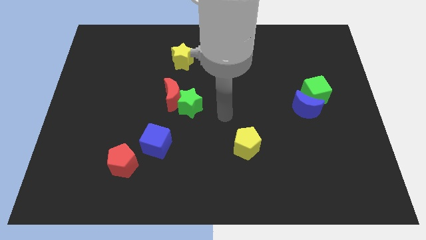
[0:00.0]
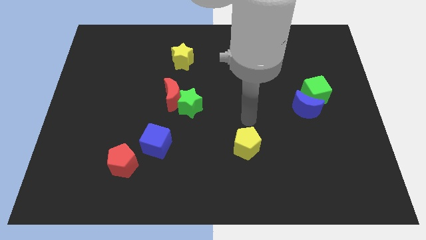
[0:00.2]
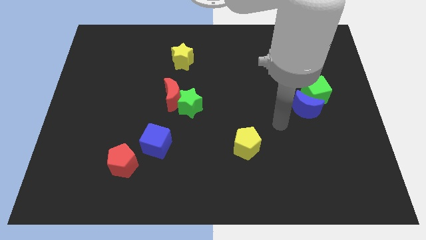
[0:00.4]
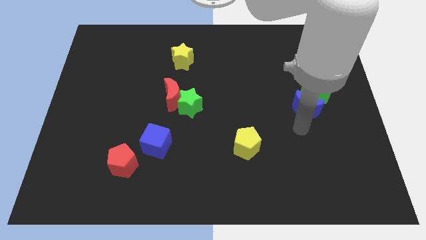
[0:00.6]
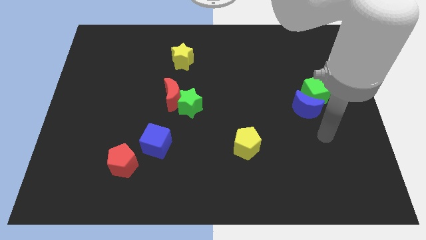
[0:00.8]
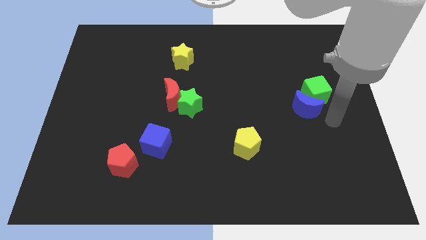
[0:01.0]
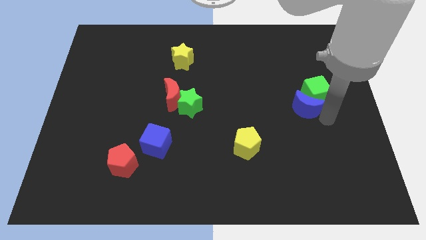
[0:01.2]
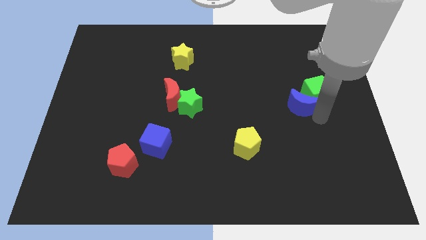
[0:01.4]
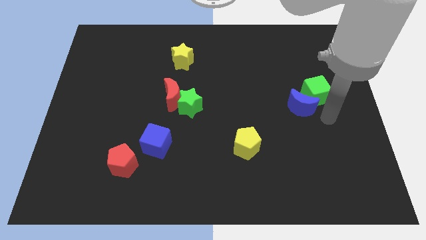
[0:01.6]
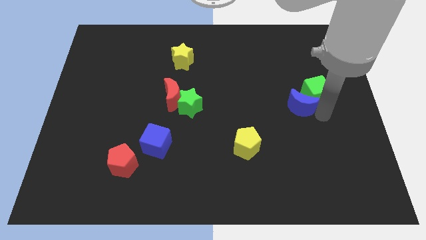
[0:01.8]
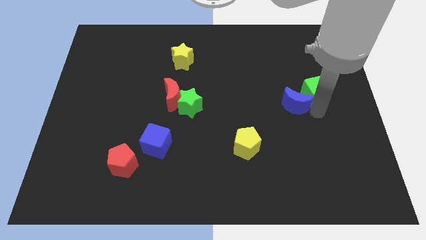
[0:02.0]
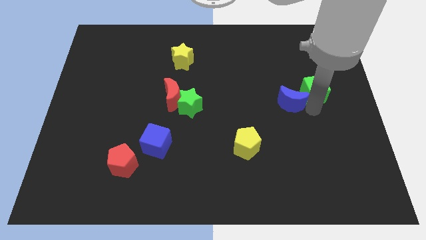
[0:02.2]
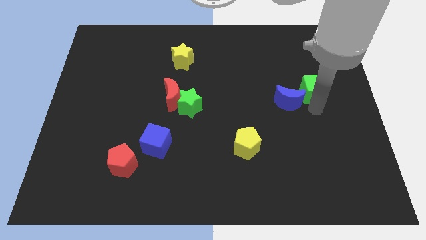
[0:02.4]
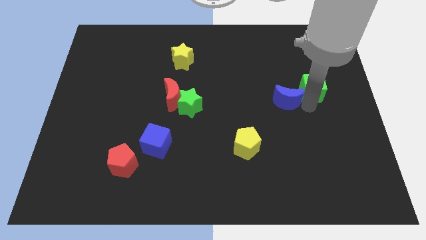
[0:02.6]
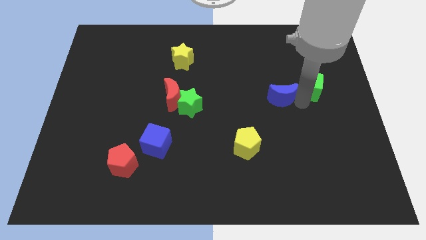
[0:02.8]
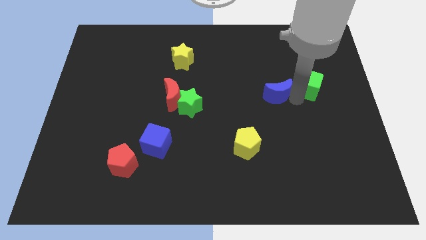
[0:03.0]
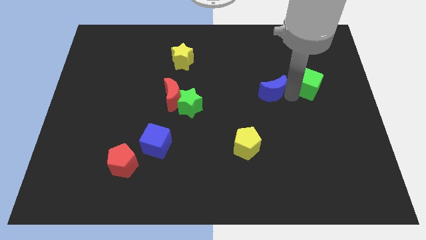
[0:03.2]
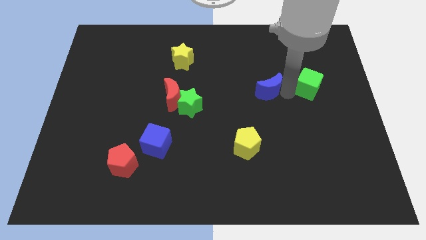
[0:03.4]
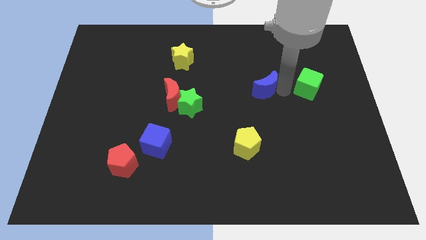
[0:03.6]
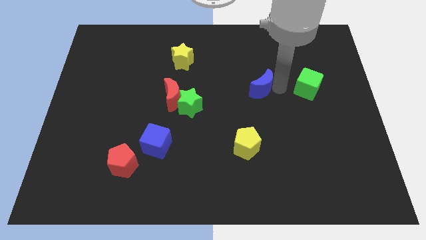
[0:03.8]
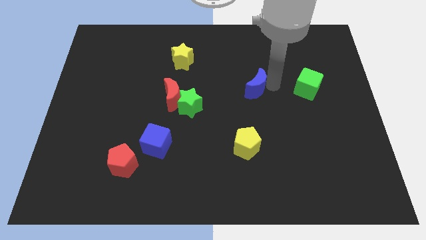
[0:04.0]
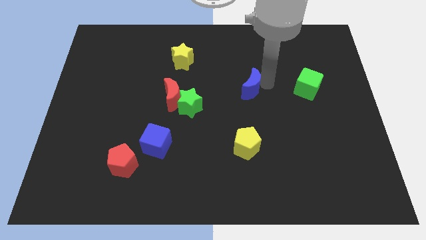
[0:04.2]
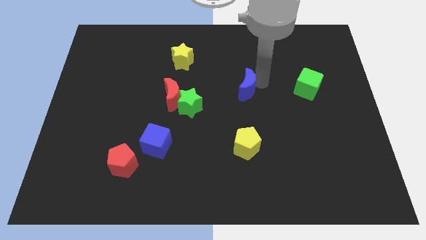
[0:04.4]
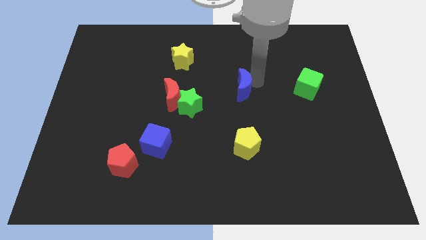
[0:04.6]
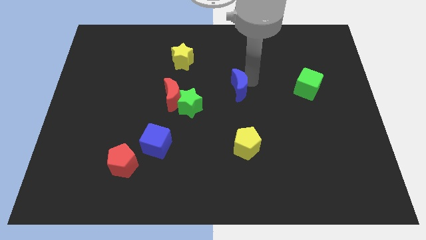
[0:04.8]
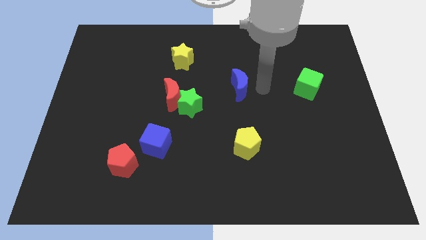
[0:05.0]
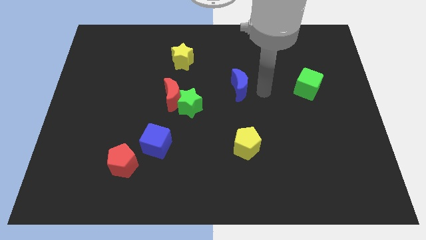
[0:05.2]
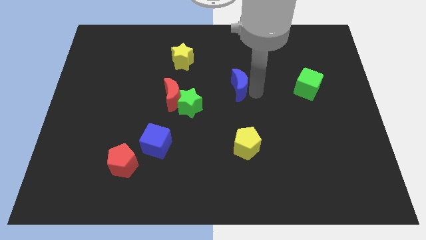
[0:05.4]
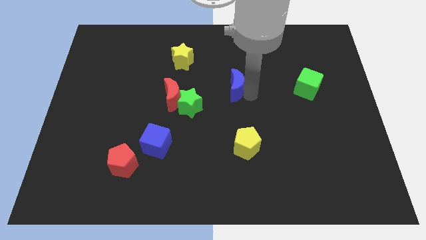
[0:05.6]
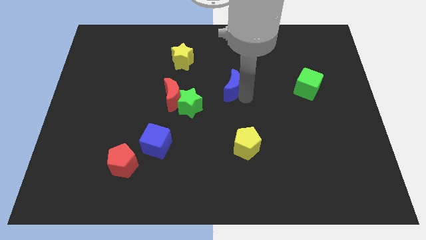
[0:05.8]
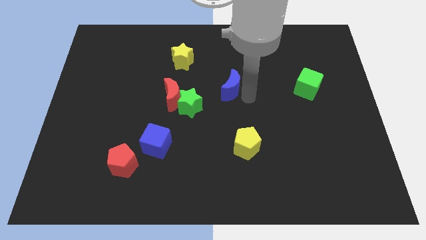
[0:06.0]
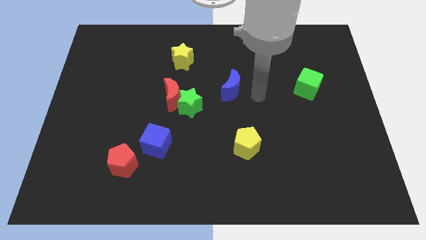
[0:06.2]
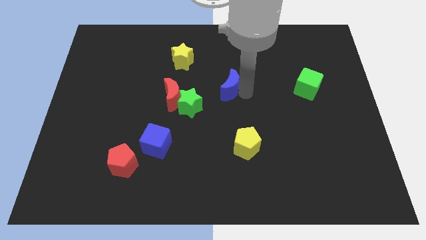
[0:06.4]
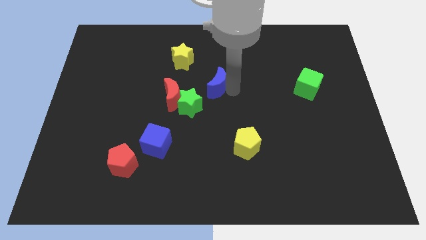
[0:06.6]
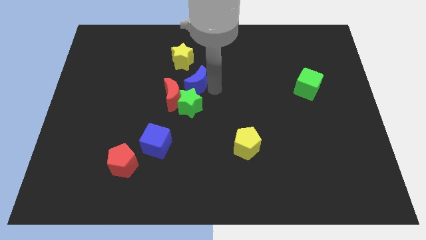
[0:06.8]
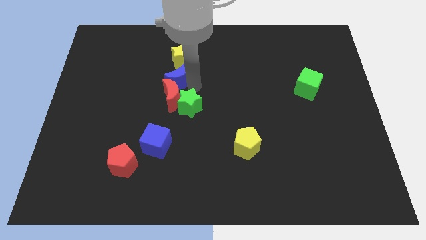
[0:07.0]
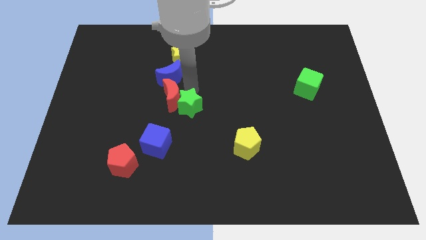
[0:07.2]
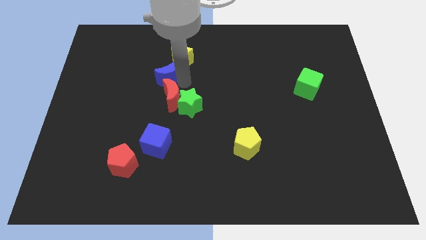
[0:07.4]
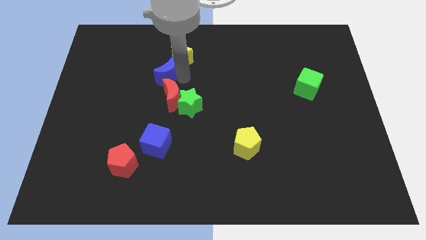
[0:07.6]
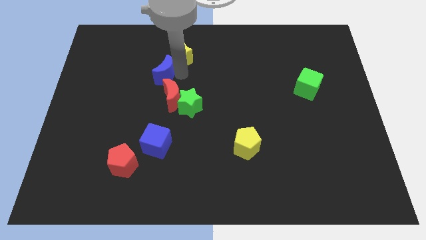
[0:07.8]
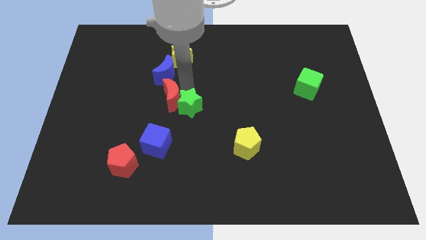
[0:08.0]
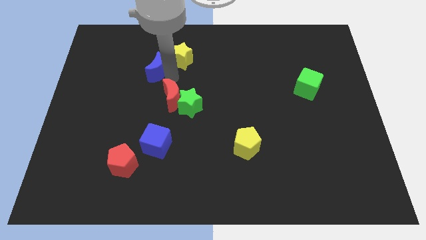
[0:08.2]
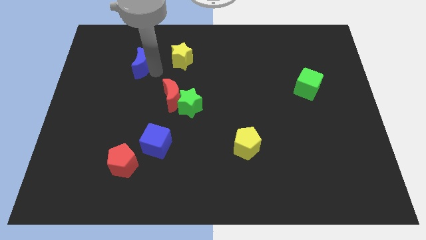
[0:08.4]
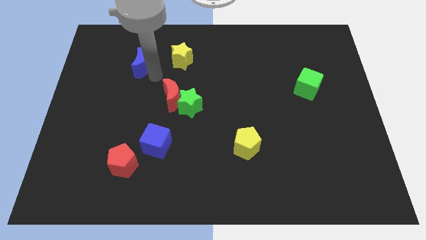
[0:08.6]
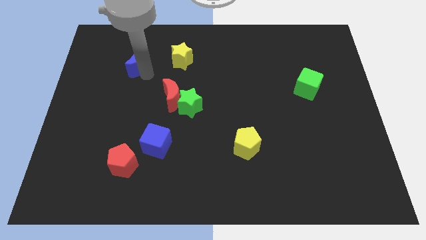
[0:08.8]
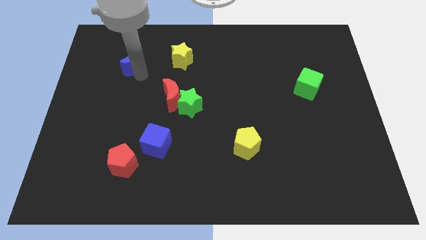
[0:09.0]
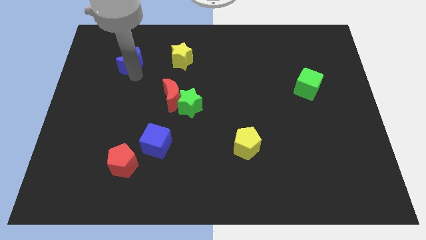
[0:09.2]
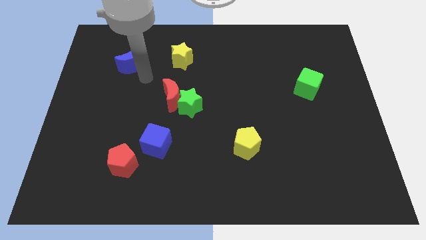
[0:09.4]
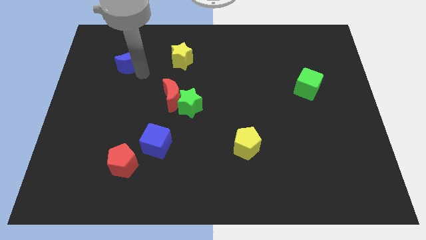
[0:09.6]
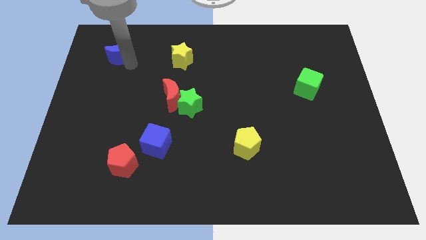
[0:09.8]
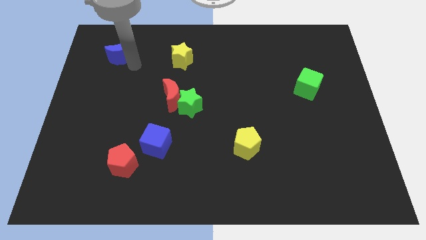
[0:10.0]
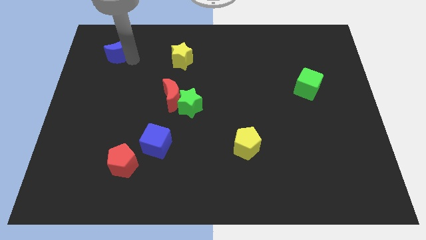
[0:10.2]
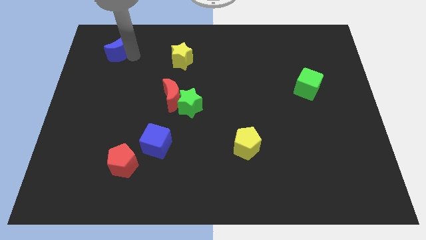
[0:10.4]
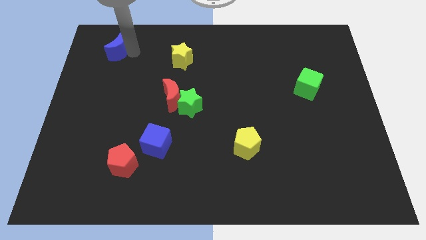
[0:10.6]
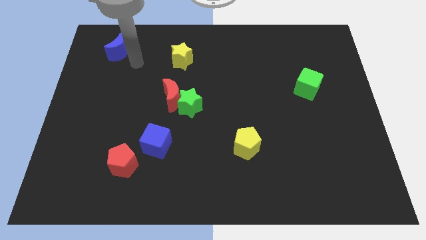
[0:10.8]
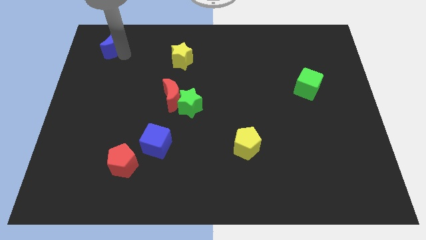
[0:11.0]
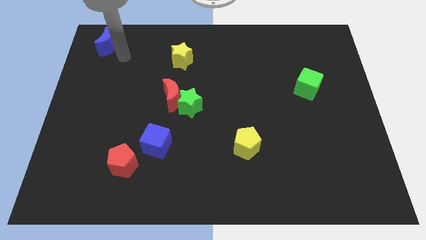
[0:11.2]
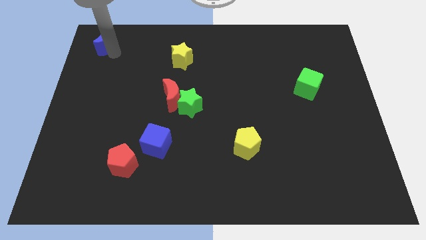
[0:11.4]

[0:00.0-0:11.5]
slide the blue moon to the top left of the board

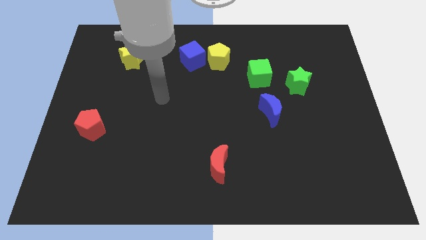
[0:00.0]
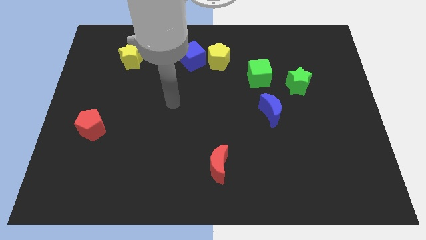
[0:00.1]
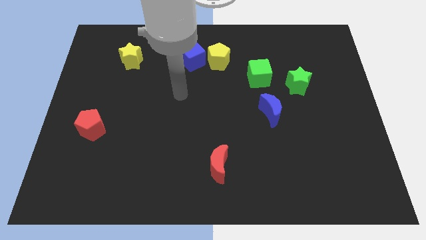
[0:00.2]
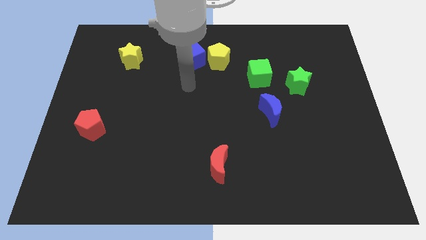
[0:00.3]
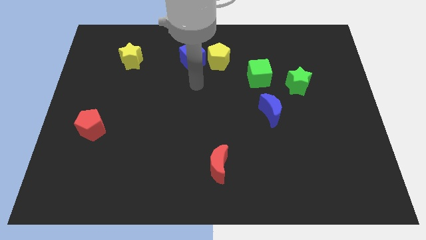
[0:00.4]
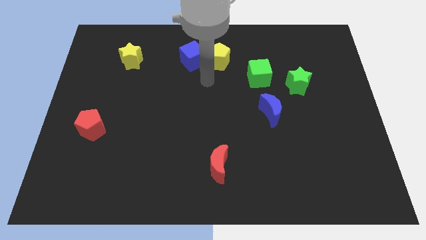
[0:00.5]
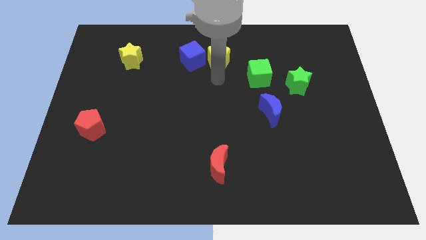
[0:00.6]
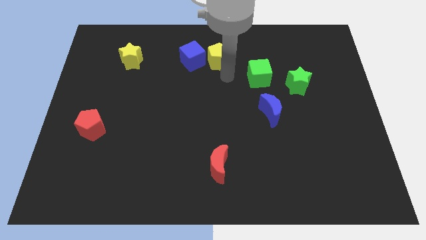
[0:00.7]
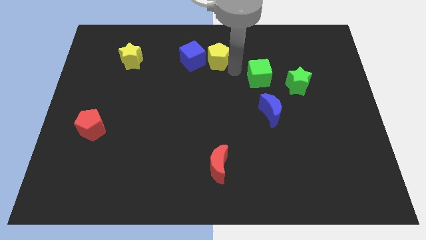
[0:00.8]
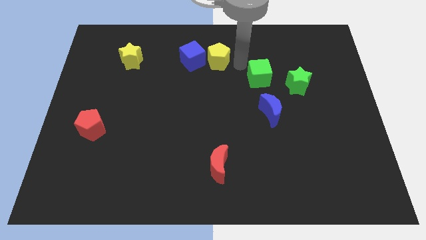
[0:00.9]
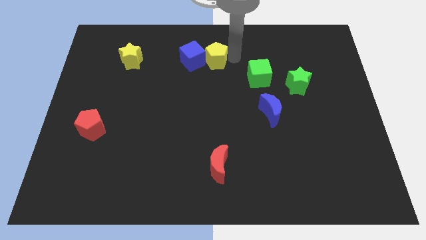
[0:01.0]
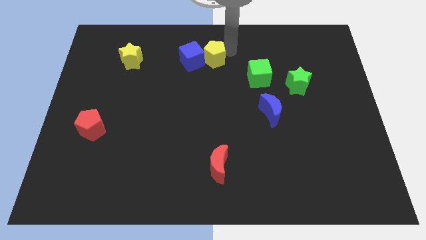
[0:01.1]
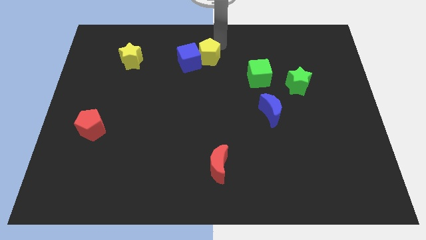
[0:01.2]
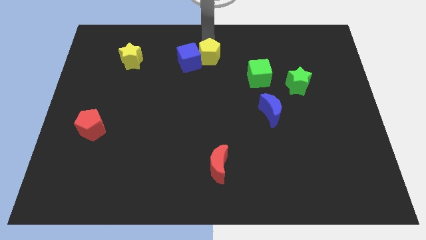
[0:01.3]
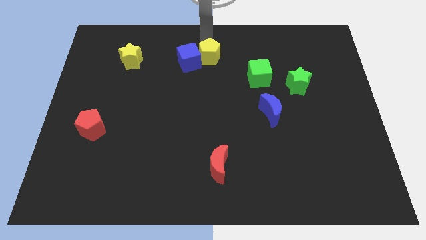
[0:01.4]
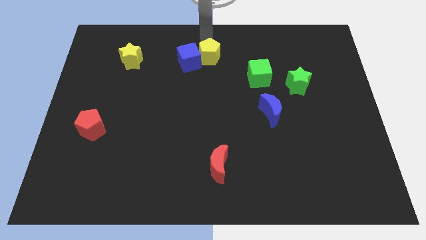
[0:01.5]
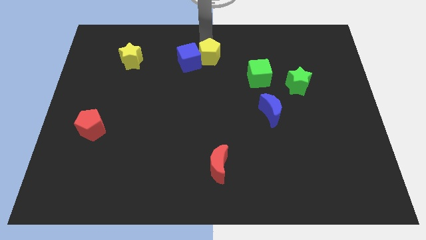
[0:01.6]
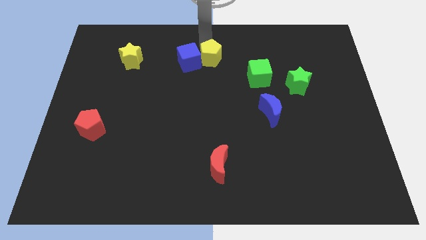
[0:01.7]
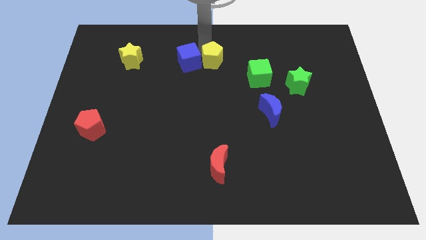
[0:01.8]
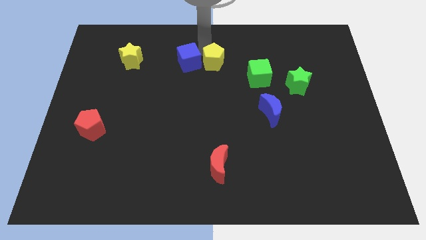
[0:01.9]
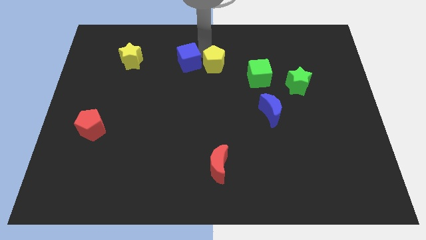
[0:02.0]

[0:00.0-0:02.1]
put the yellow pentagon to the middle
